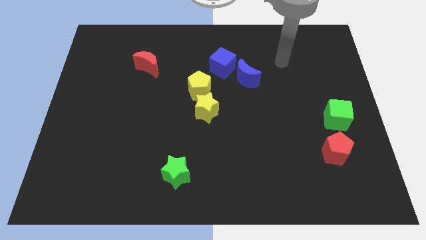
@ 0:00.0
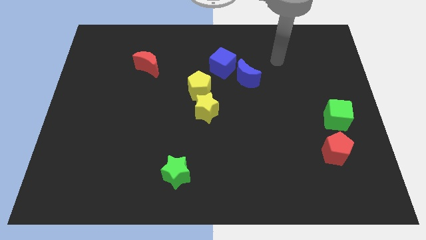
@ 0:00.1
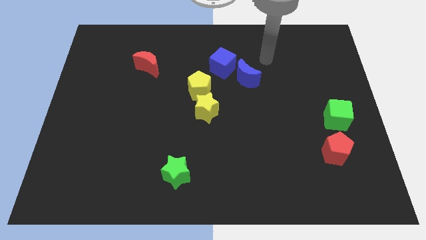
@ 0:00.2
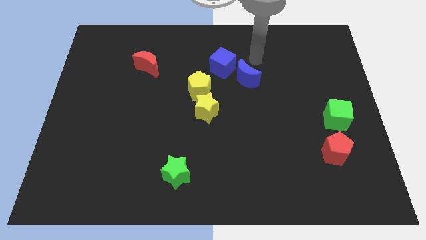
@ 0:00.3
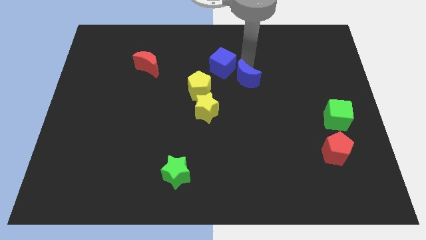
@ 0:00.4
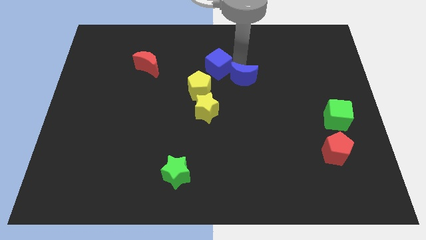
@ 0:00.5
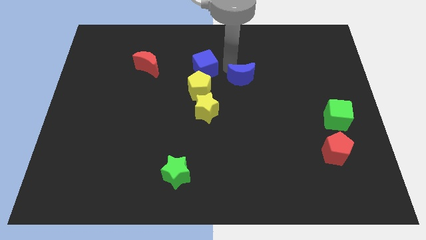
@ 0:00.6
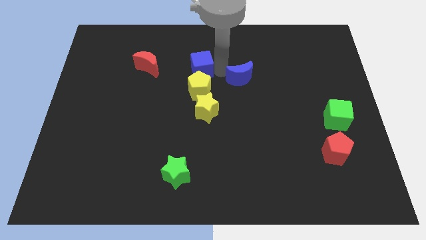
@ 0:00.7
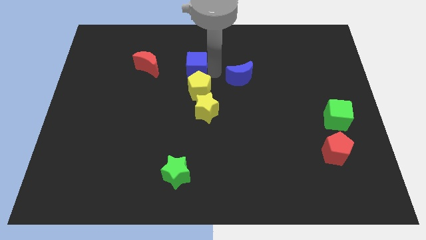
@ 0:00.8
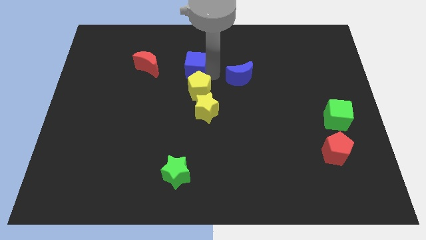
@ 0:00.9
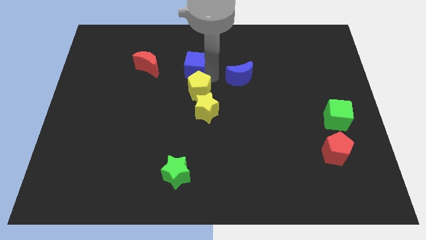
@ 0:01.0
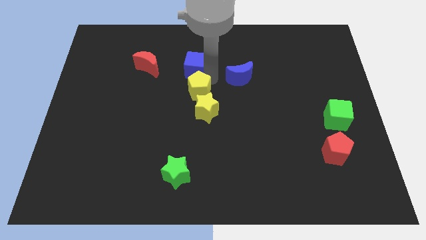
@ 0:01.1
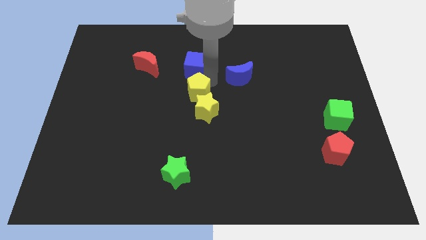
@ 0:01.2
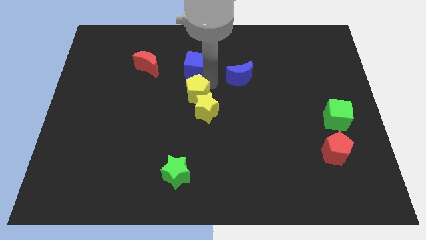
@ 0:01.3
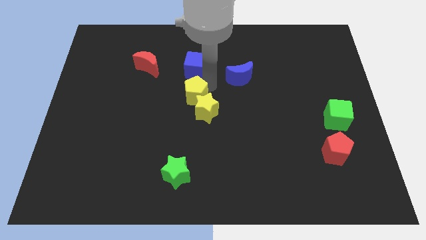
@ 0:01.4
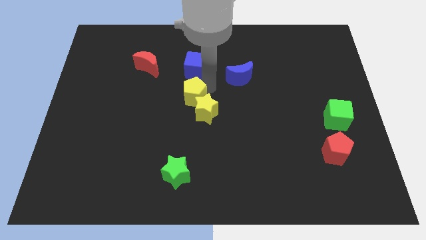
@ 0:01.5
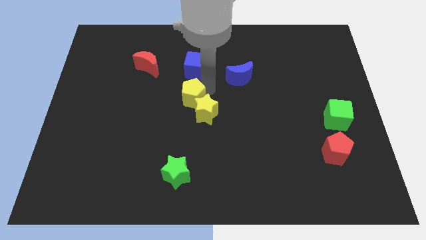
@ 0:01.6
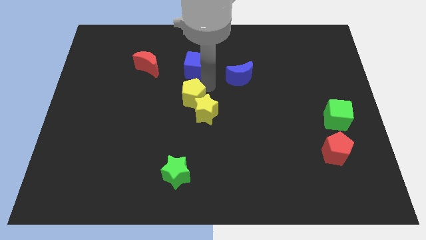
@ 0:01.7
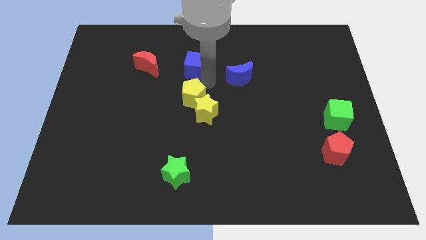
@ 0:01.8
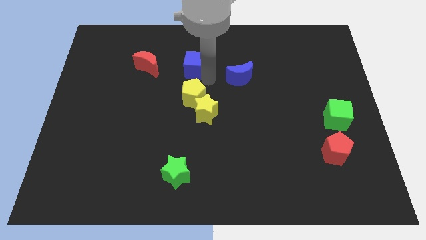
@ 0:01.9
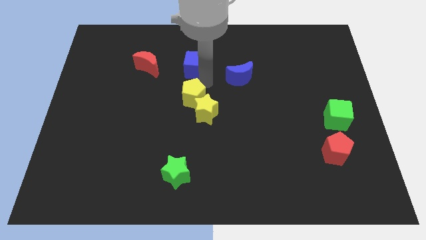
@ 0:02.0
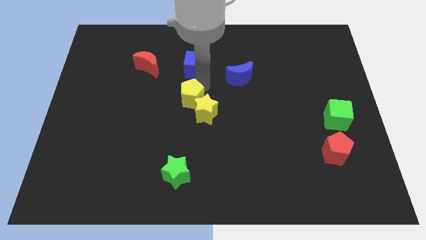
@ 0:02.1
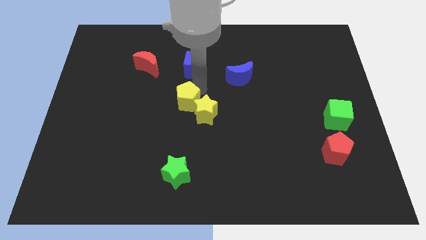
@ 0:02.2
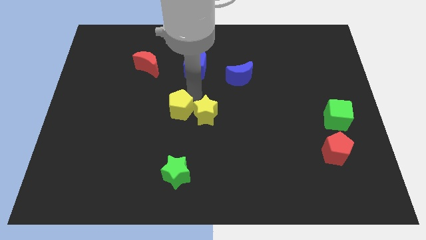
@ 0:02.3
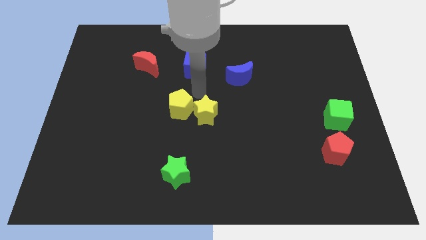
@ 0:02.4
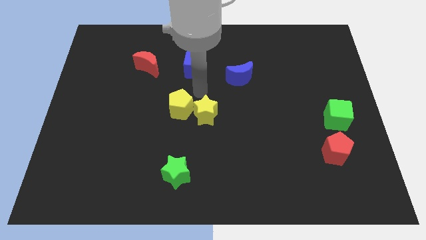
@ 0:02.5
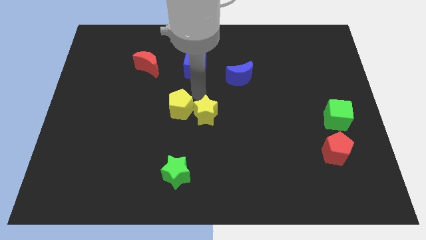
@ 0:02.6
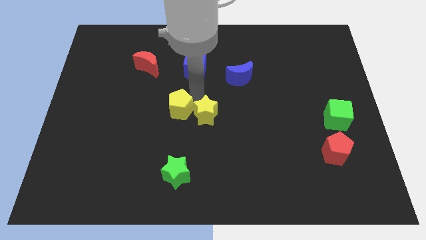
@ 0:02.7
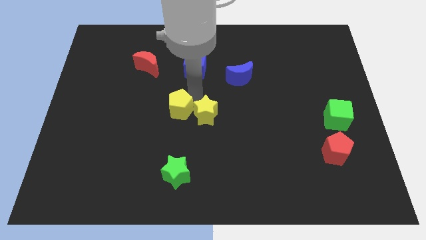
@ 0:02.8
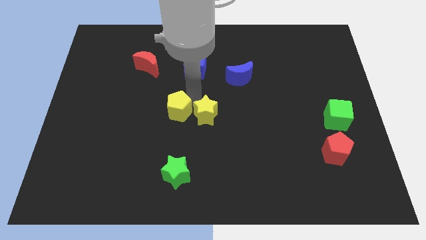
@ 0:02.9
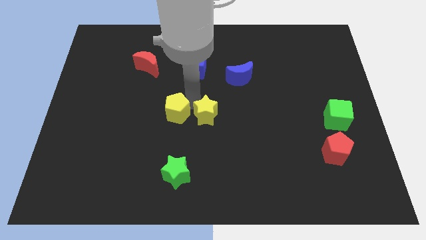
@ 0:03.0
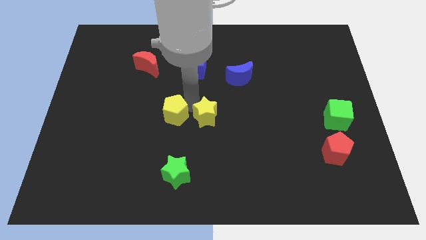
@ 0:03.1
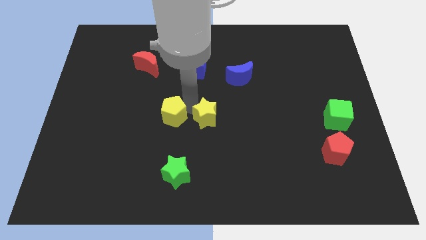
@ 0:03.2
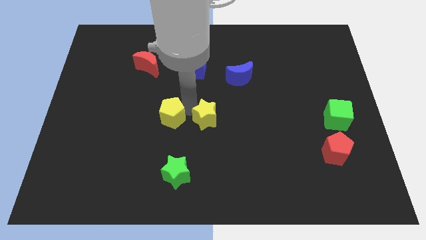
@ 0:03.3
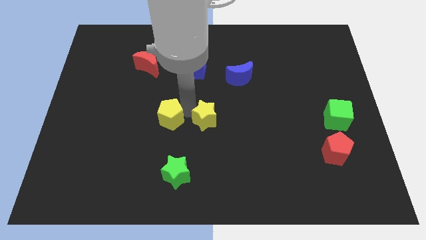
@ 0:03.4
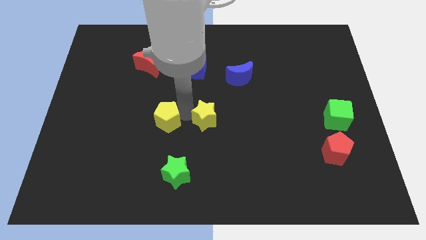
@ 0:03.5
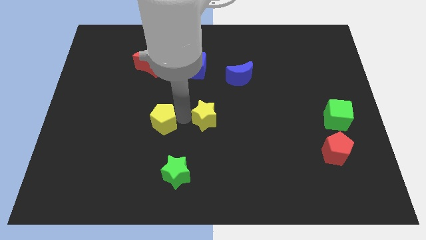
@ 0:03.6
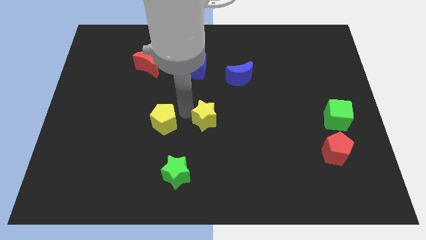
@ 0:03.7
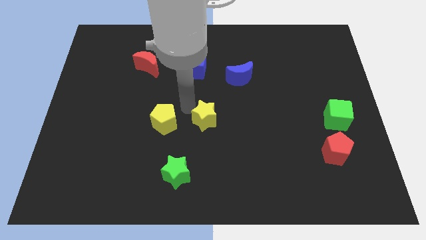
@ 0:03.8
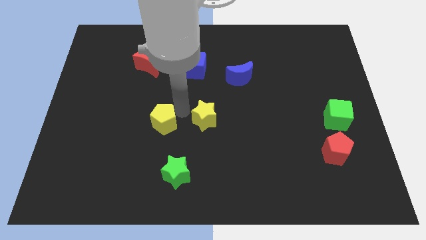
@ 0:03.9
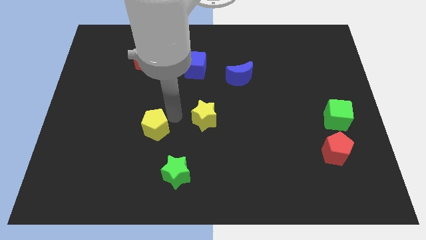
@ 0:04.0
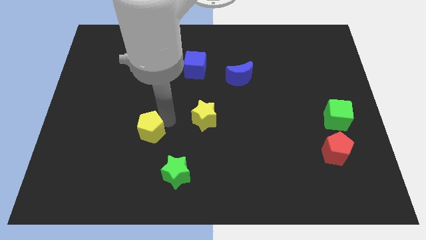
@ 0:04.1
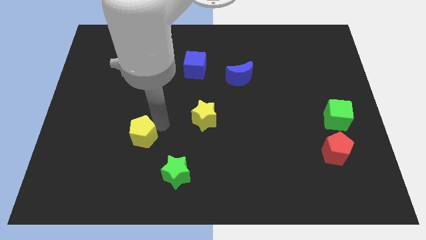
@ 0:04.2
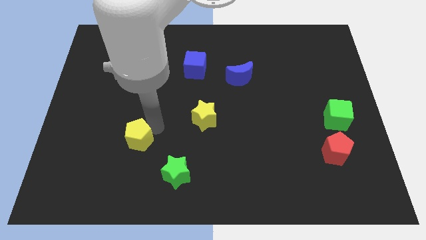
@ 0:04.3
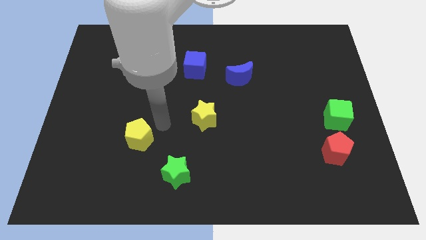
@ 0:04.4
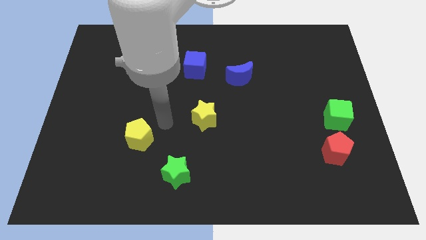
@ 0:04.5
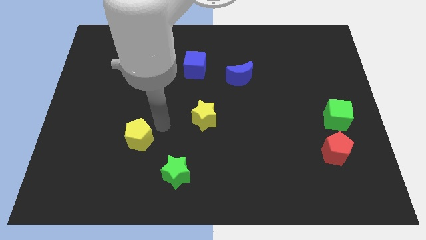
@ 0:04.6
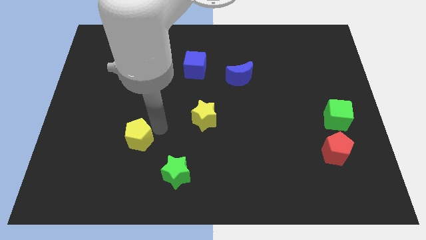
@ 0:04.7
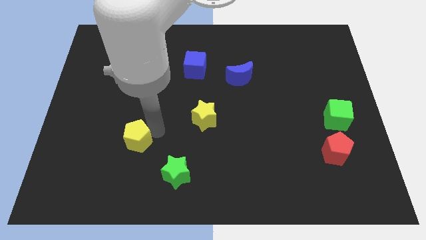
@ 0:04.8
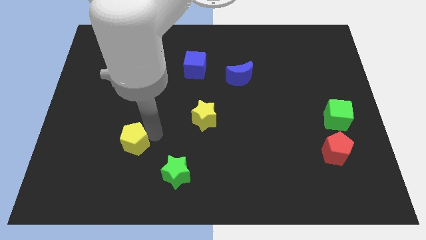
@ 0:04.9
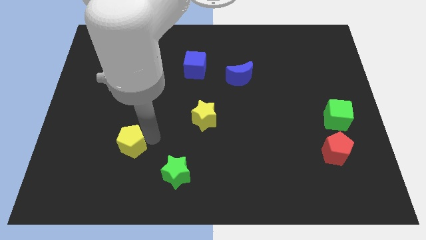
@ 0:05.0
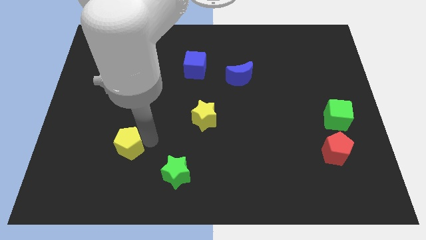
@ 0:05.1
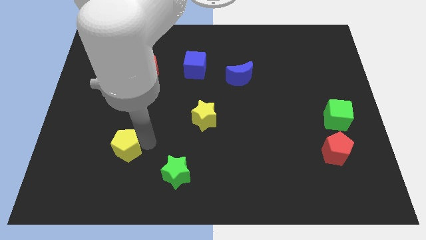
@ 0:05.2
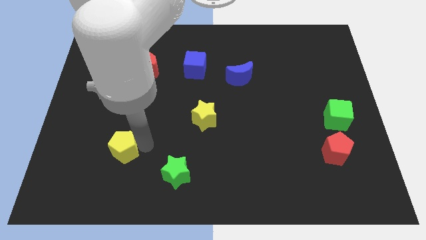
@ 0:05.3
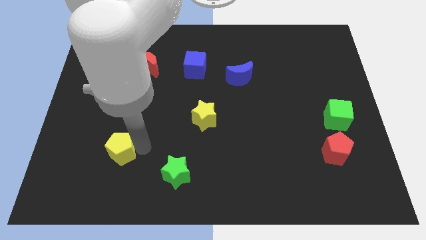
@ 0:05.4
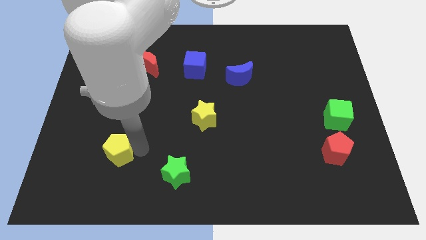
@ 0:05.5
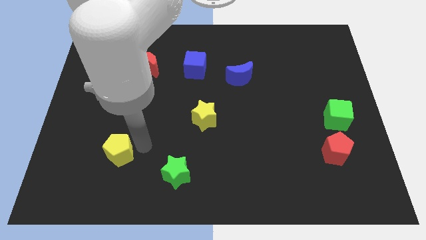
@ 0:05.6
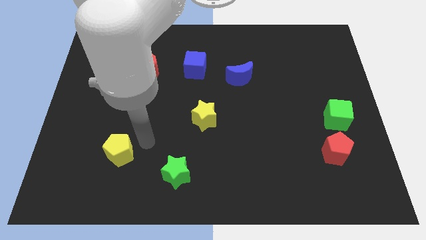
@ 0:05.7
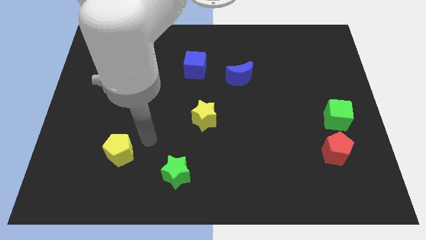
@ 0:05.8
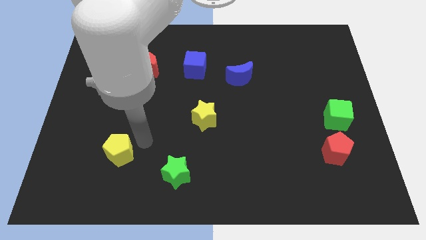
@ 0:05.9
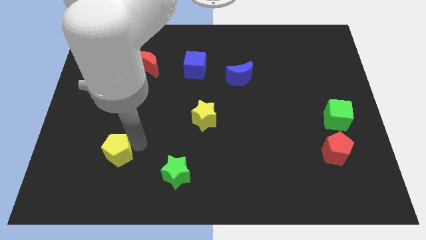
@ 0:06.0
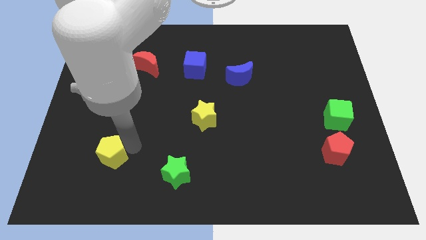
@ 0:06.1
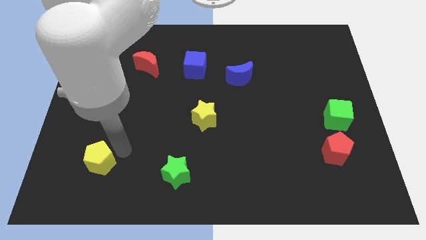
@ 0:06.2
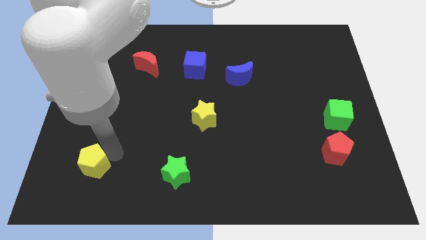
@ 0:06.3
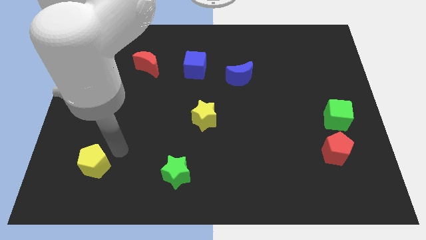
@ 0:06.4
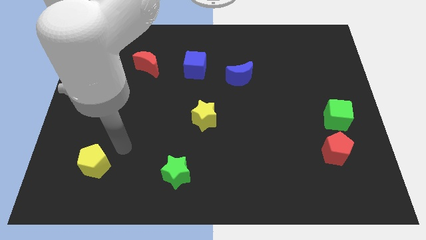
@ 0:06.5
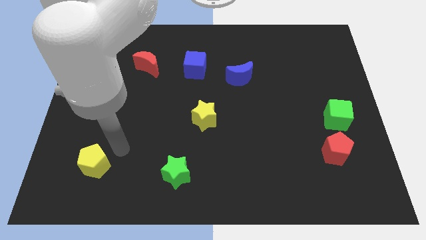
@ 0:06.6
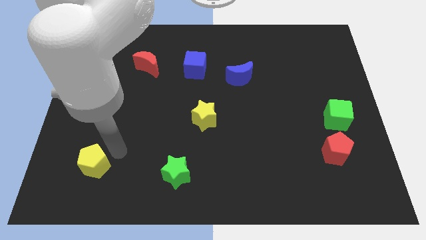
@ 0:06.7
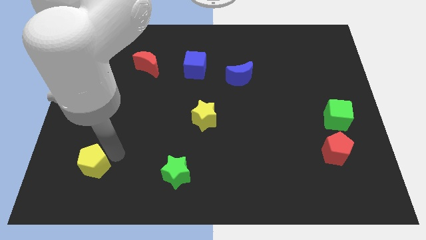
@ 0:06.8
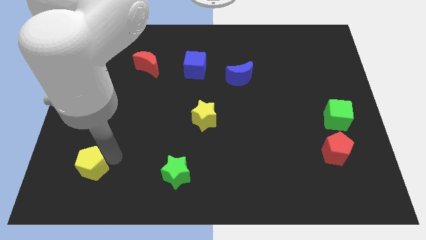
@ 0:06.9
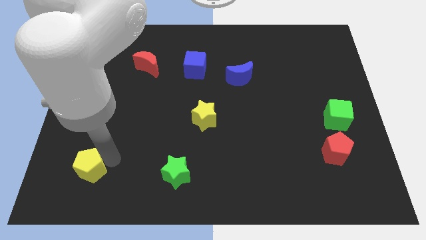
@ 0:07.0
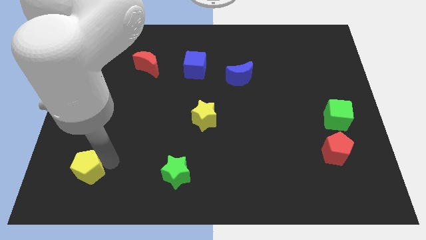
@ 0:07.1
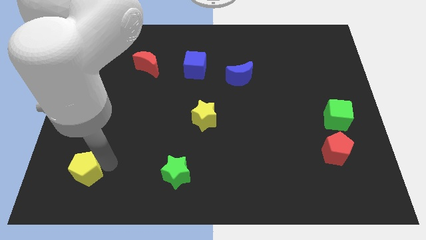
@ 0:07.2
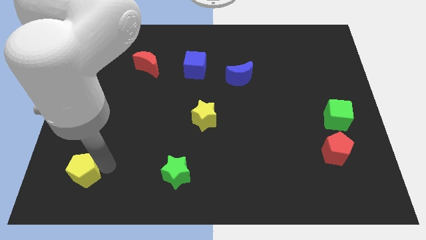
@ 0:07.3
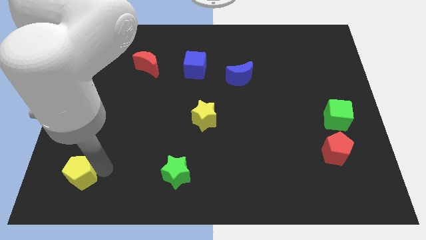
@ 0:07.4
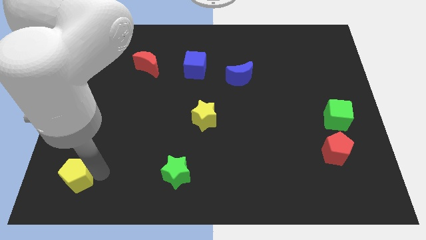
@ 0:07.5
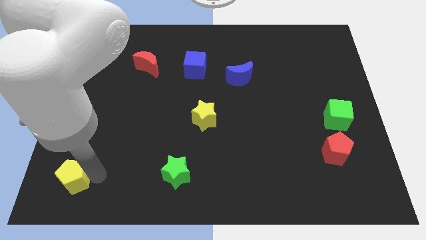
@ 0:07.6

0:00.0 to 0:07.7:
slide the yellow pentagon to the lower left corner
